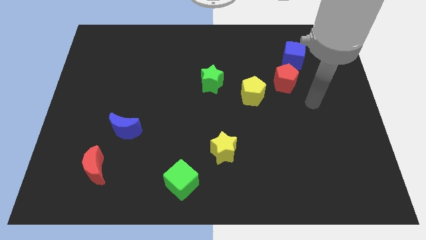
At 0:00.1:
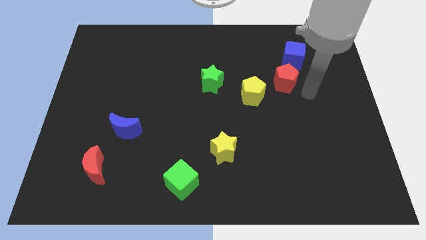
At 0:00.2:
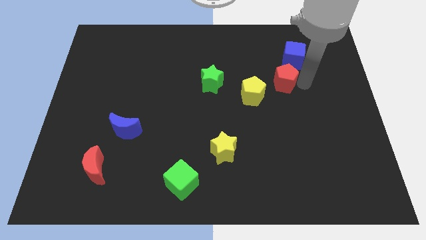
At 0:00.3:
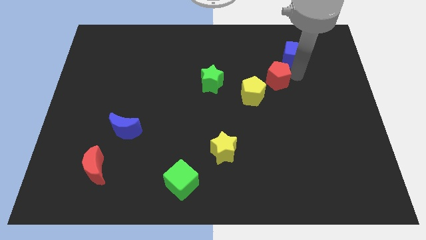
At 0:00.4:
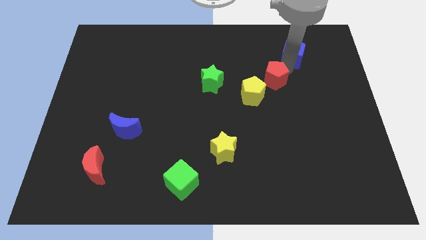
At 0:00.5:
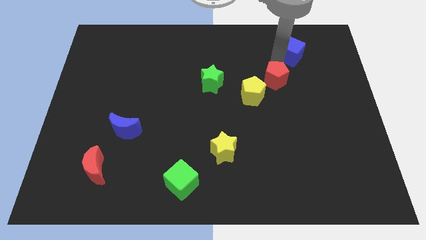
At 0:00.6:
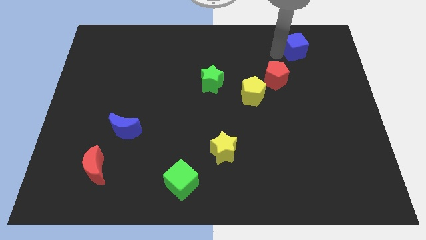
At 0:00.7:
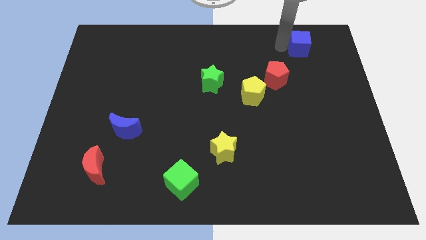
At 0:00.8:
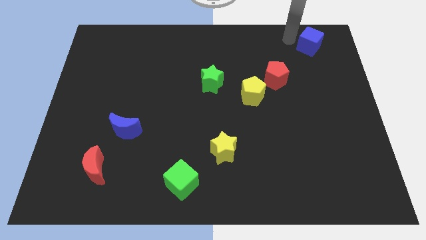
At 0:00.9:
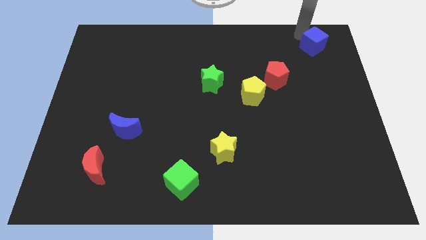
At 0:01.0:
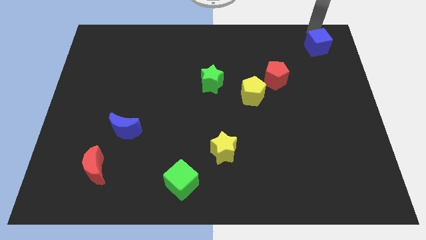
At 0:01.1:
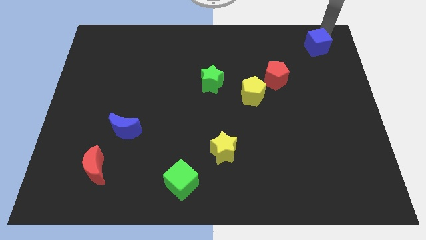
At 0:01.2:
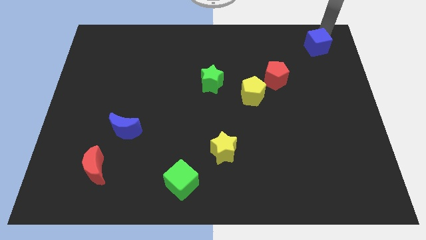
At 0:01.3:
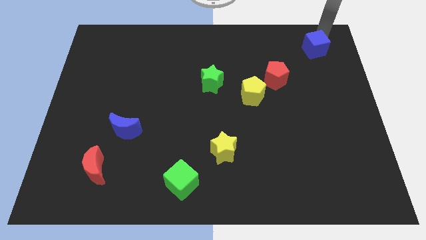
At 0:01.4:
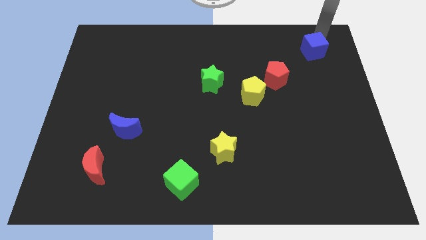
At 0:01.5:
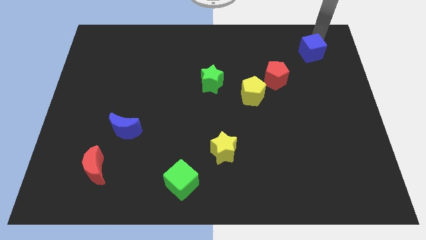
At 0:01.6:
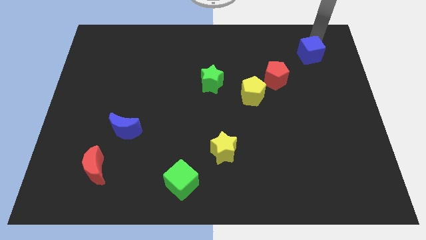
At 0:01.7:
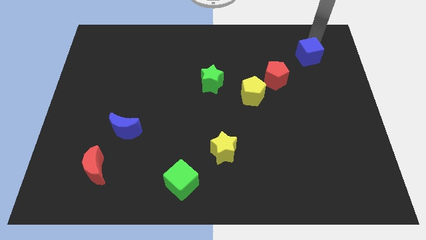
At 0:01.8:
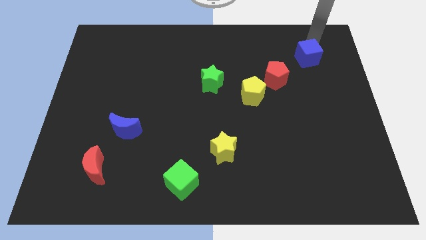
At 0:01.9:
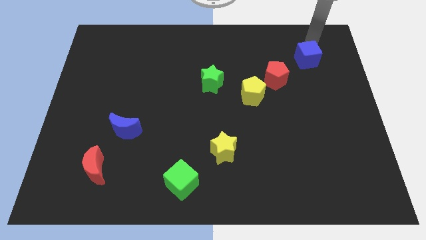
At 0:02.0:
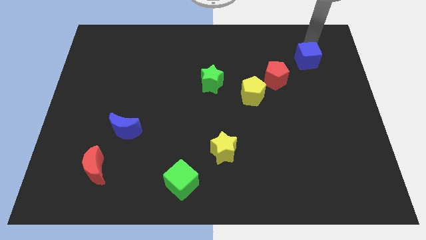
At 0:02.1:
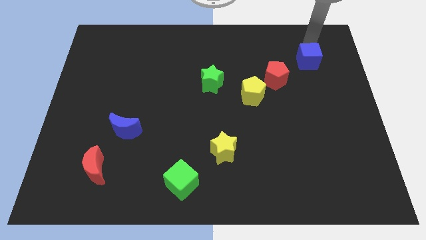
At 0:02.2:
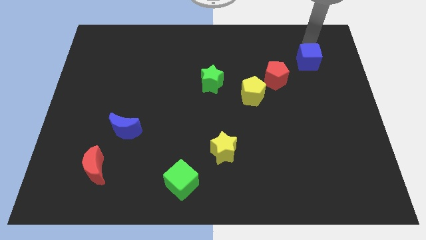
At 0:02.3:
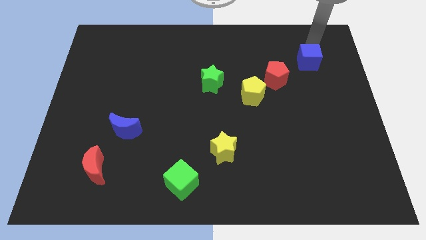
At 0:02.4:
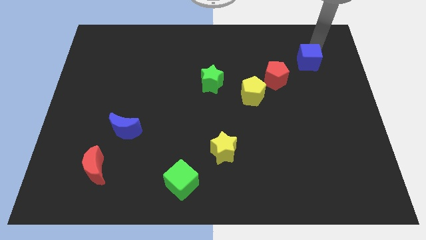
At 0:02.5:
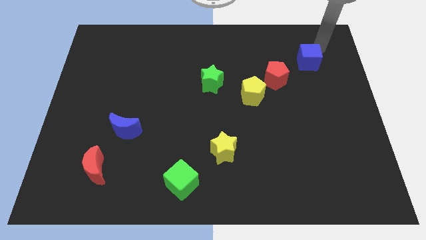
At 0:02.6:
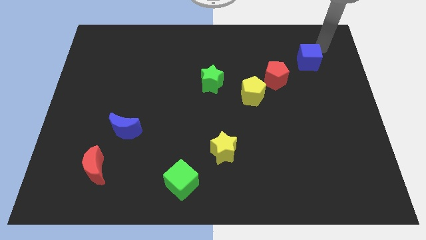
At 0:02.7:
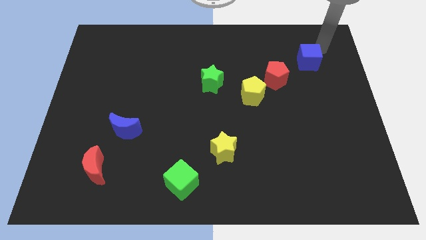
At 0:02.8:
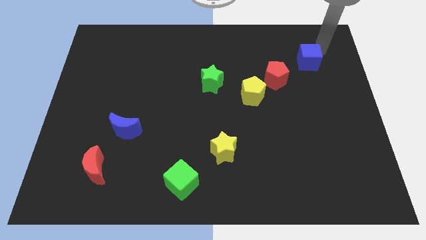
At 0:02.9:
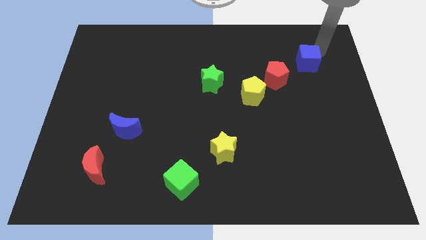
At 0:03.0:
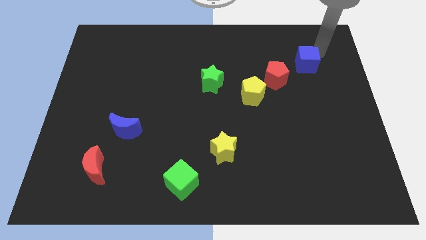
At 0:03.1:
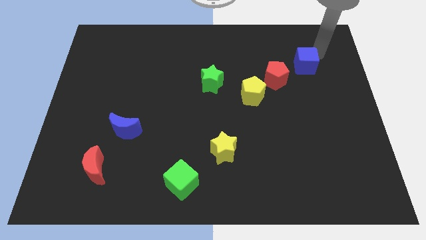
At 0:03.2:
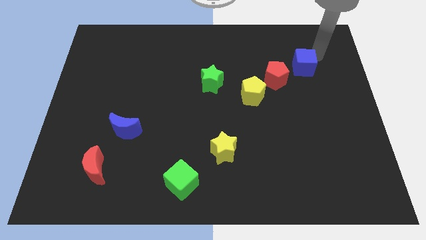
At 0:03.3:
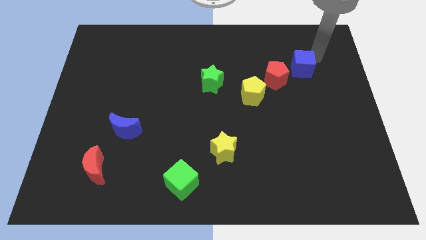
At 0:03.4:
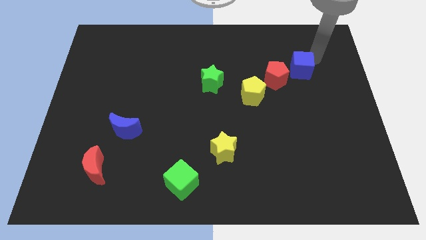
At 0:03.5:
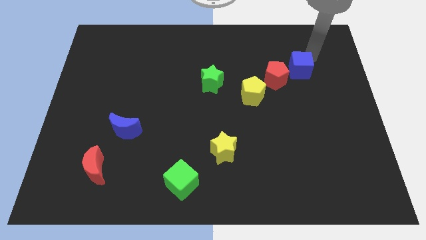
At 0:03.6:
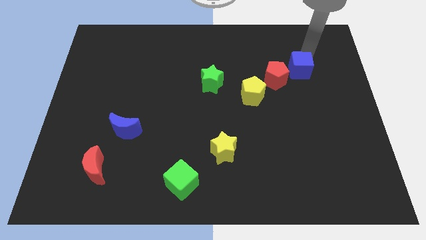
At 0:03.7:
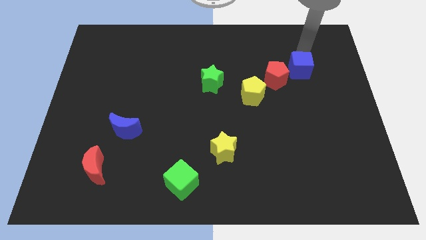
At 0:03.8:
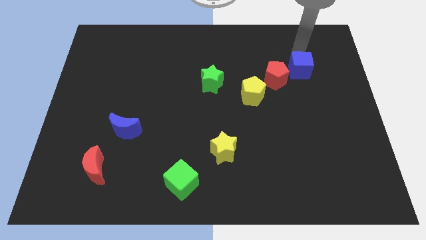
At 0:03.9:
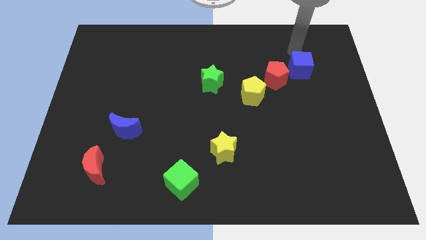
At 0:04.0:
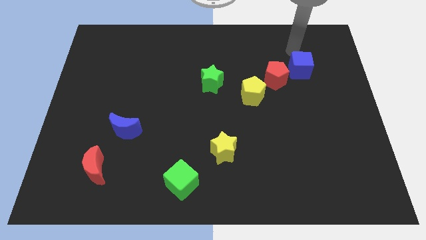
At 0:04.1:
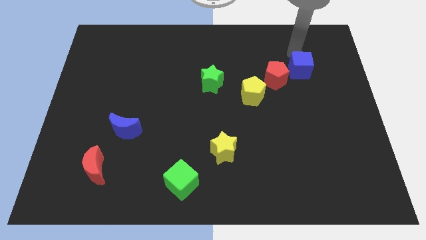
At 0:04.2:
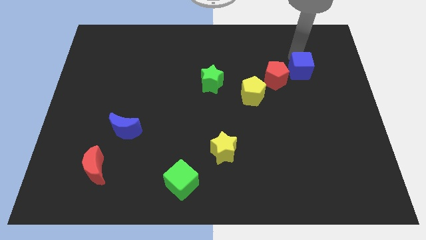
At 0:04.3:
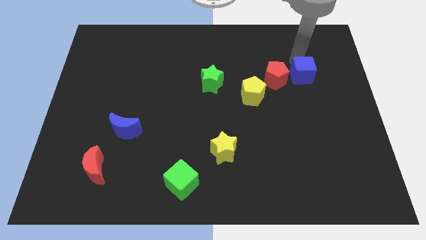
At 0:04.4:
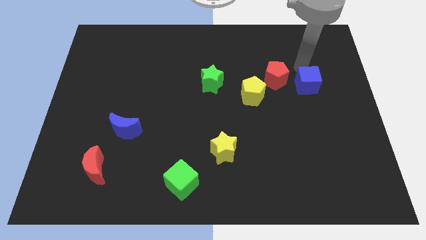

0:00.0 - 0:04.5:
move the blue cube down somewhat

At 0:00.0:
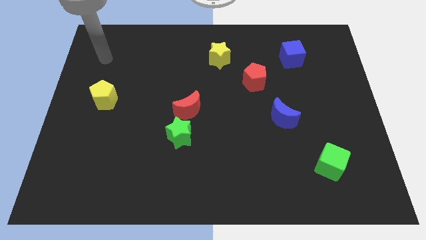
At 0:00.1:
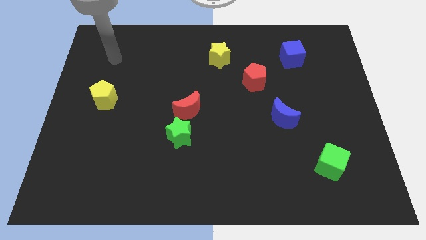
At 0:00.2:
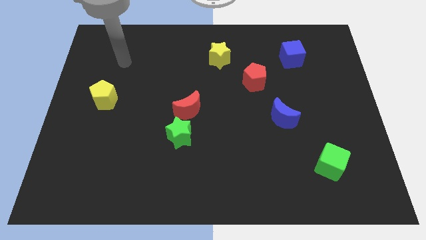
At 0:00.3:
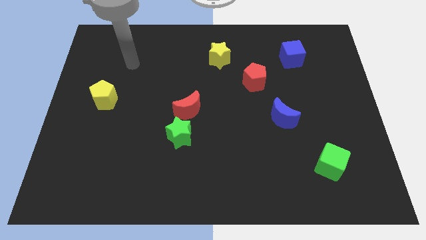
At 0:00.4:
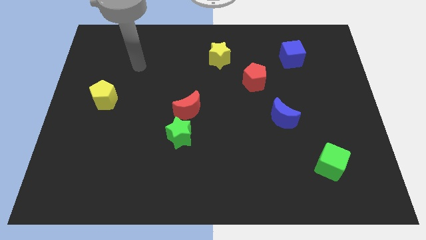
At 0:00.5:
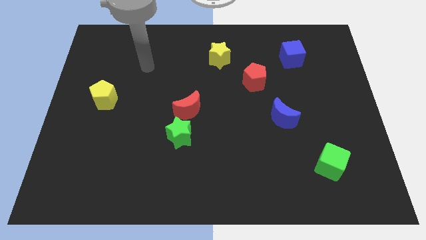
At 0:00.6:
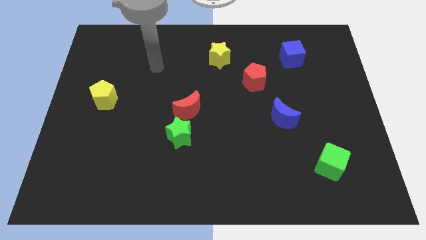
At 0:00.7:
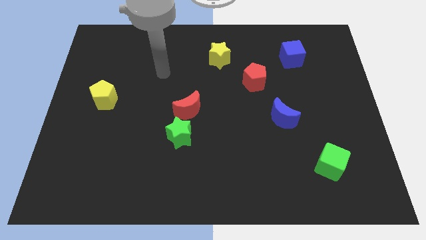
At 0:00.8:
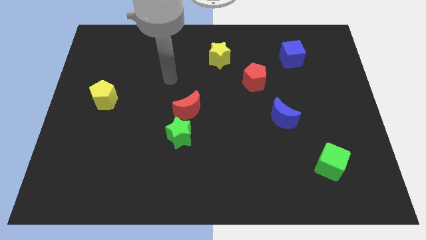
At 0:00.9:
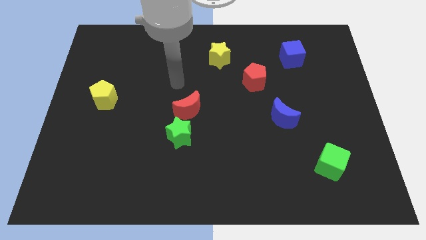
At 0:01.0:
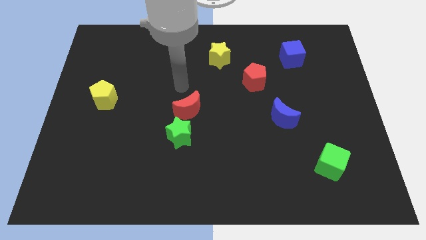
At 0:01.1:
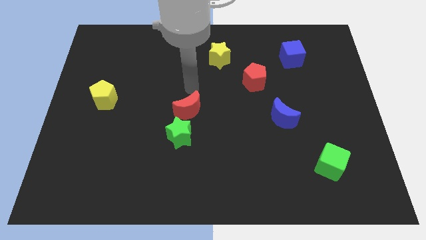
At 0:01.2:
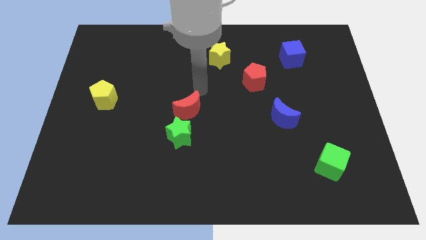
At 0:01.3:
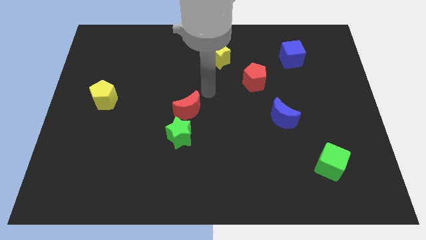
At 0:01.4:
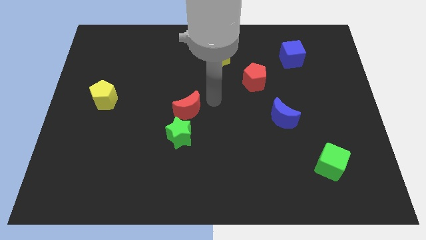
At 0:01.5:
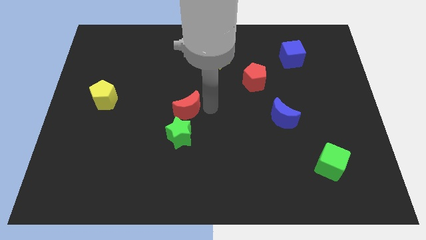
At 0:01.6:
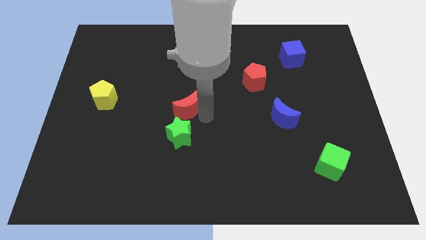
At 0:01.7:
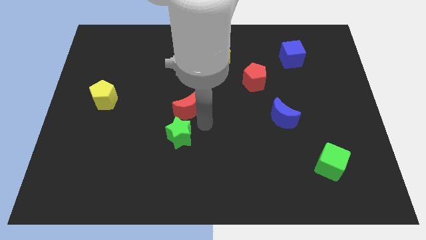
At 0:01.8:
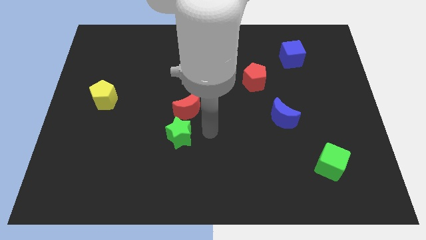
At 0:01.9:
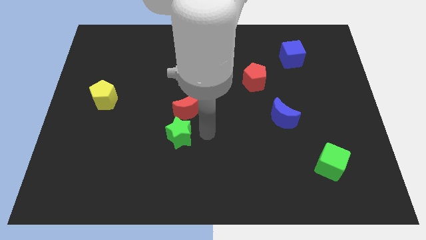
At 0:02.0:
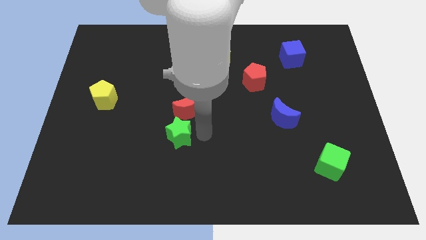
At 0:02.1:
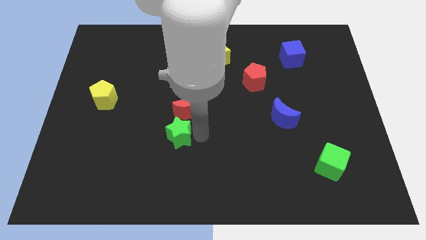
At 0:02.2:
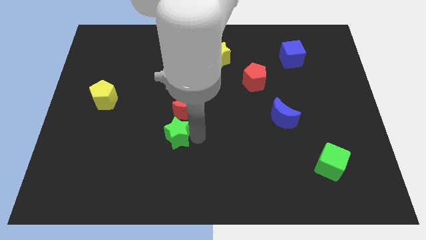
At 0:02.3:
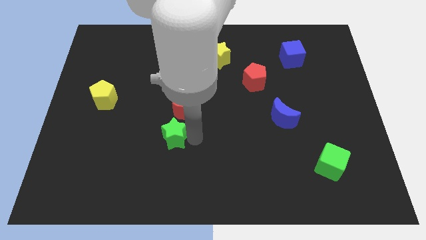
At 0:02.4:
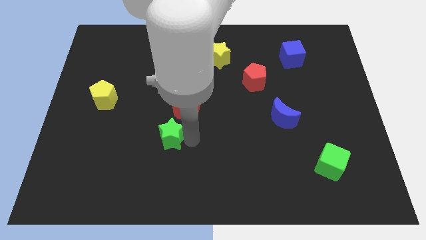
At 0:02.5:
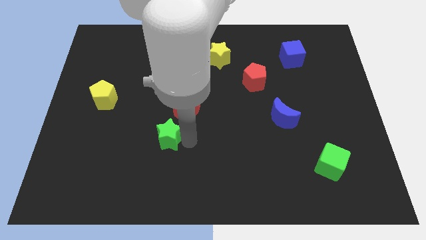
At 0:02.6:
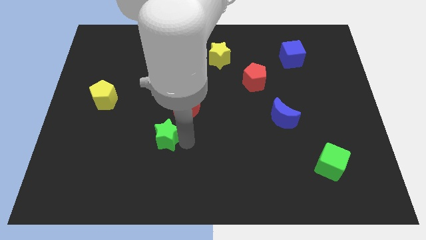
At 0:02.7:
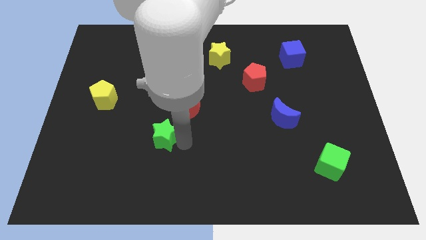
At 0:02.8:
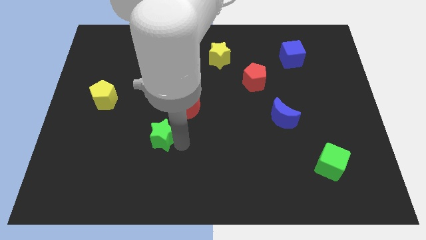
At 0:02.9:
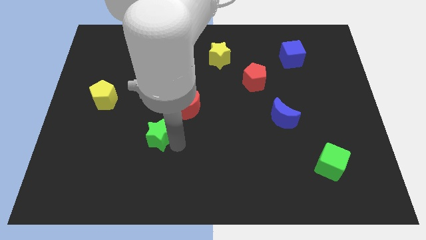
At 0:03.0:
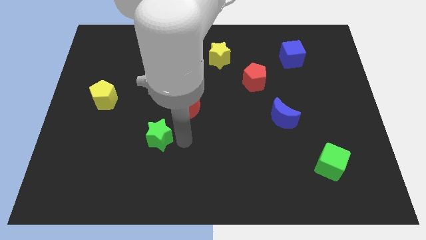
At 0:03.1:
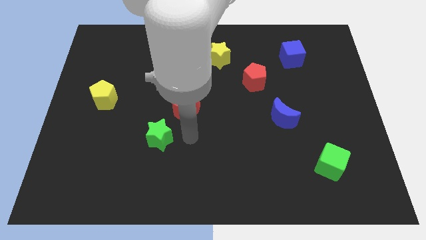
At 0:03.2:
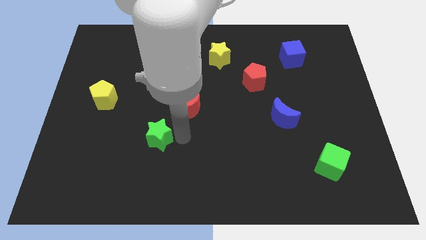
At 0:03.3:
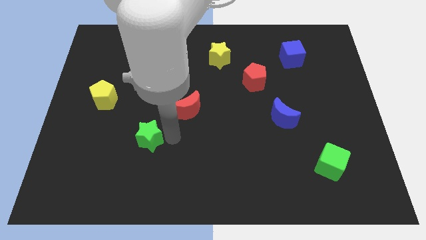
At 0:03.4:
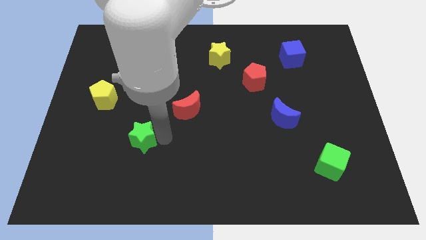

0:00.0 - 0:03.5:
slightly slide the green star left

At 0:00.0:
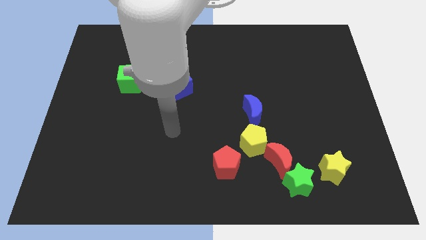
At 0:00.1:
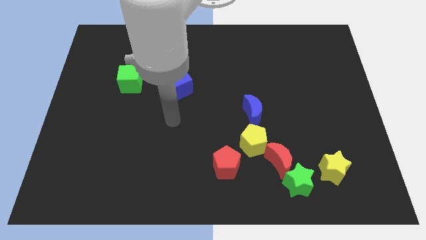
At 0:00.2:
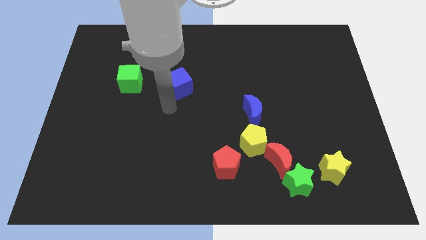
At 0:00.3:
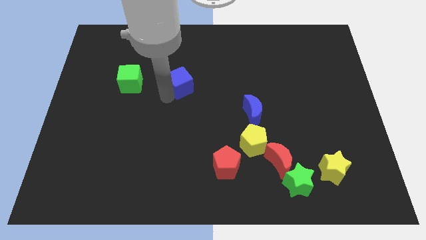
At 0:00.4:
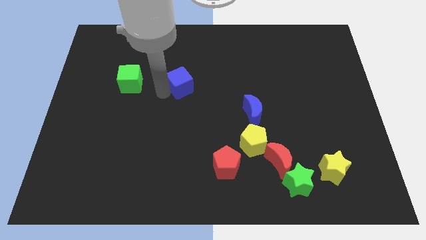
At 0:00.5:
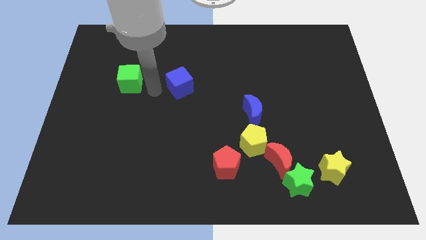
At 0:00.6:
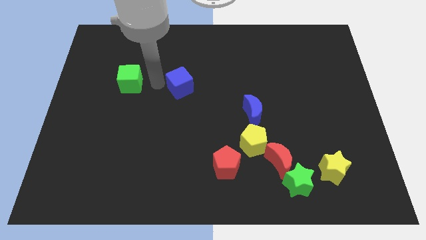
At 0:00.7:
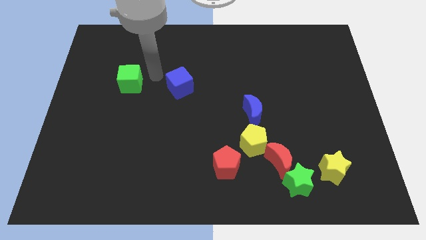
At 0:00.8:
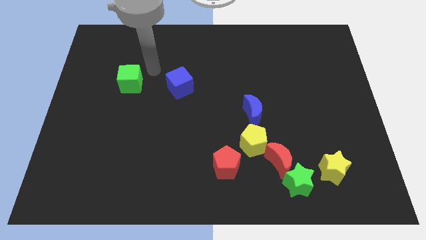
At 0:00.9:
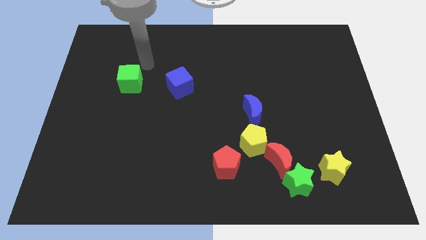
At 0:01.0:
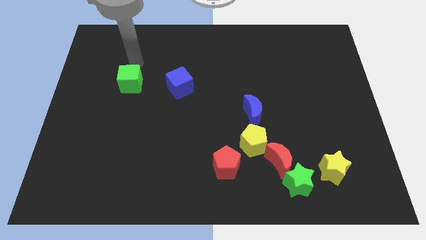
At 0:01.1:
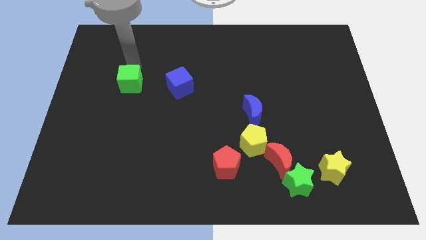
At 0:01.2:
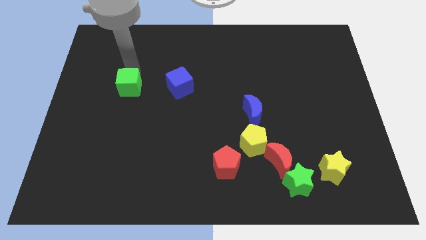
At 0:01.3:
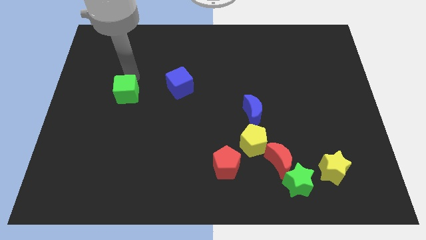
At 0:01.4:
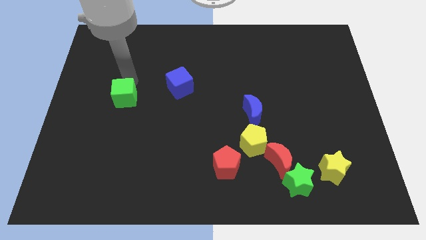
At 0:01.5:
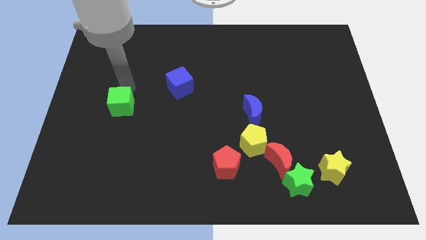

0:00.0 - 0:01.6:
move the green cube down a little
